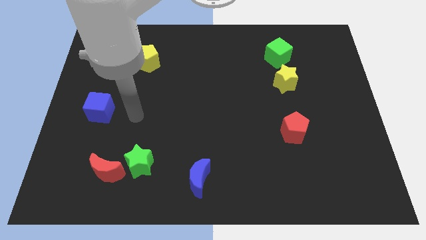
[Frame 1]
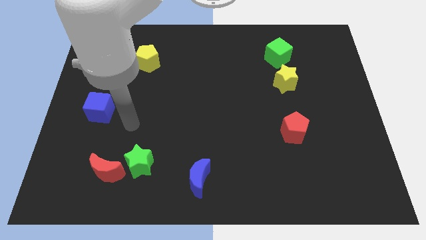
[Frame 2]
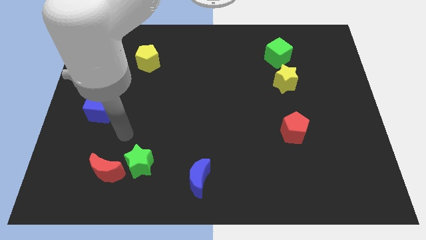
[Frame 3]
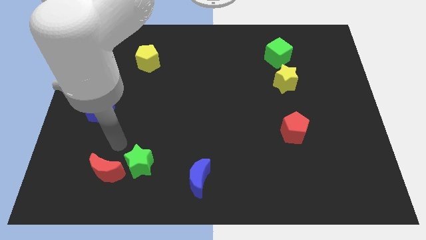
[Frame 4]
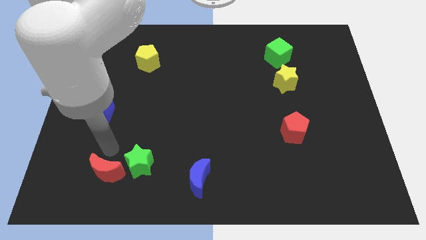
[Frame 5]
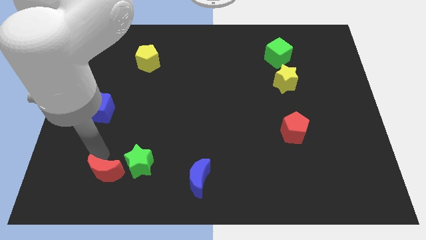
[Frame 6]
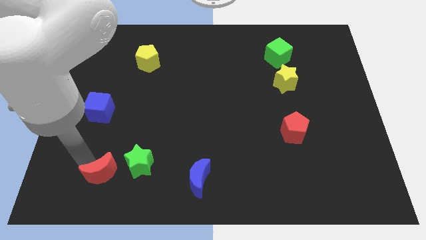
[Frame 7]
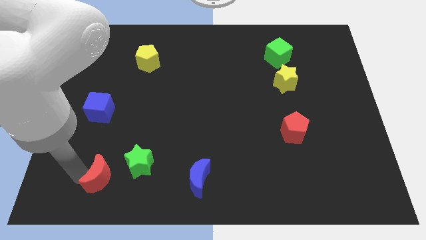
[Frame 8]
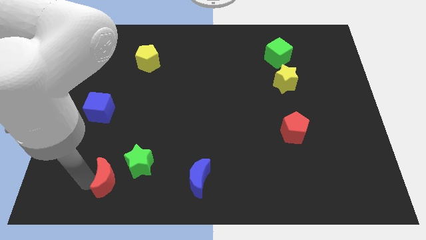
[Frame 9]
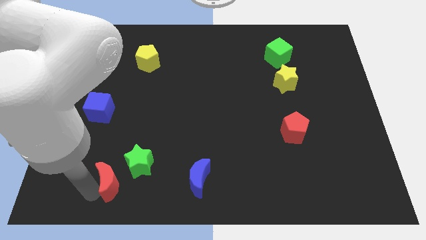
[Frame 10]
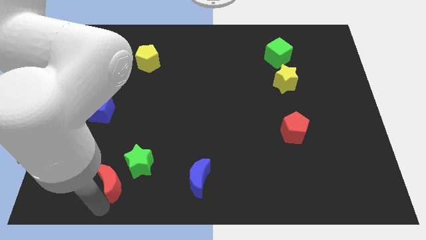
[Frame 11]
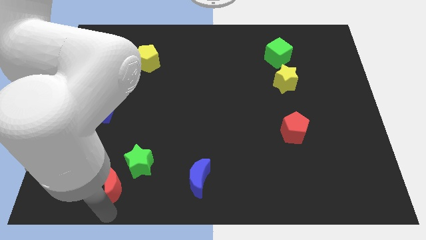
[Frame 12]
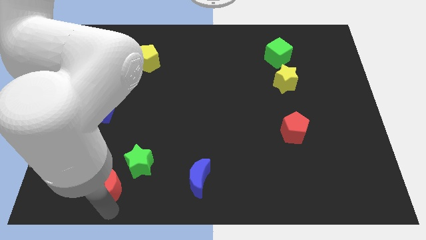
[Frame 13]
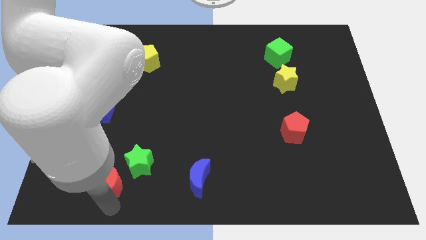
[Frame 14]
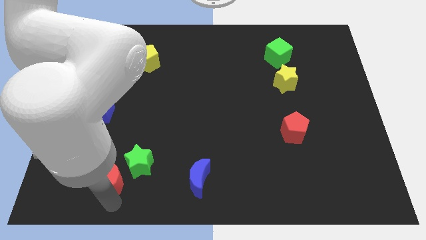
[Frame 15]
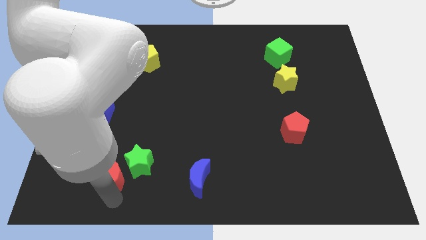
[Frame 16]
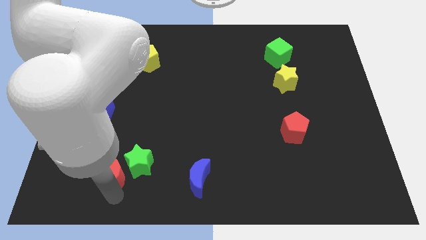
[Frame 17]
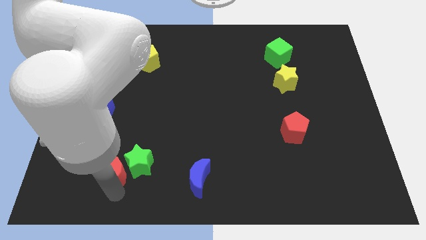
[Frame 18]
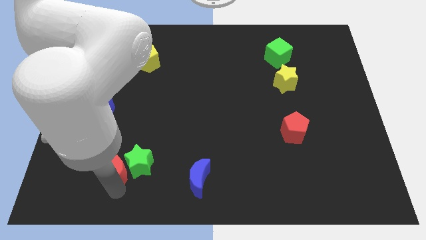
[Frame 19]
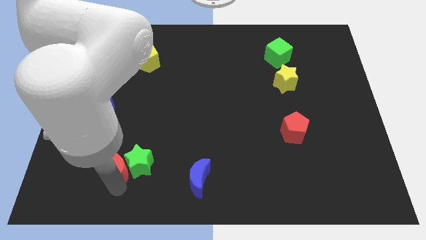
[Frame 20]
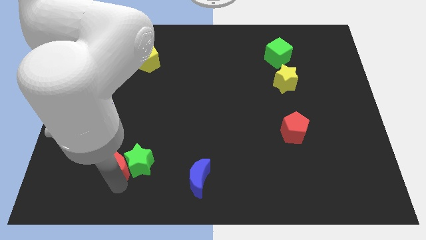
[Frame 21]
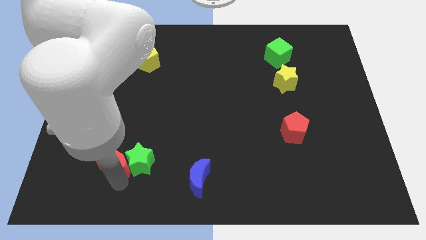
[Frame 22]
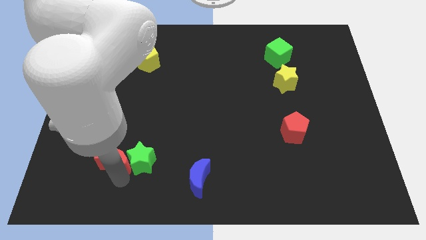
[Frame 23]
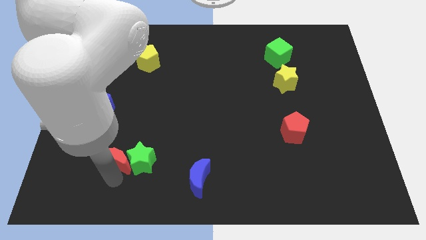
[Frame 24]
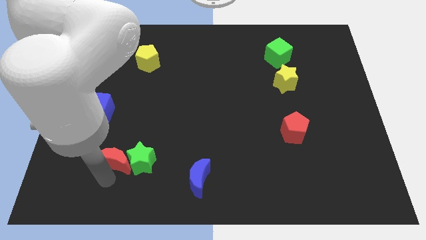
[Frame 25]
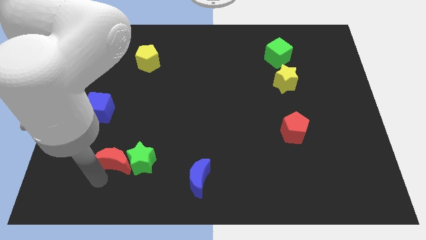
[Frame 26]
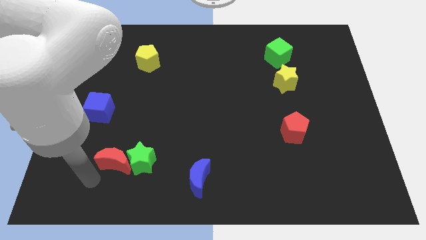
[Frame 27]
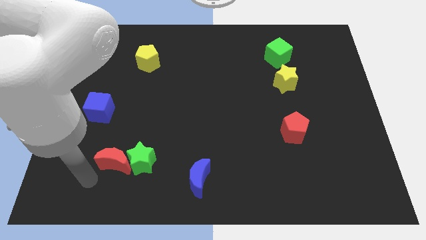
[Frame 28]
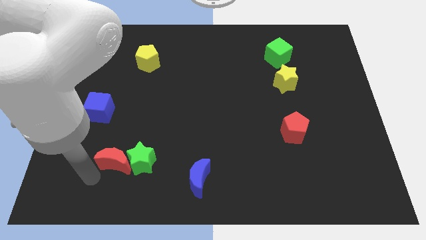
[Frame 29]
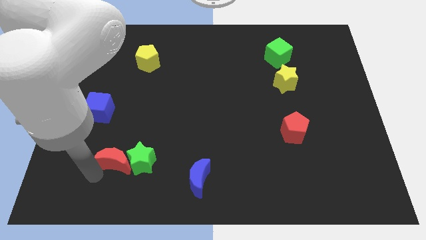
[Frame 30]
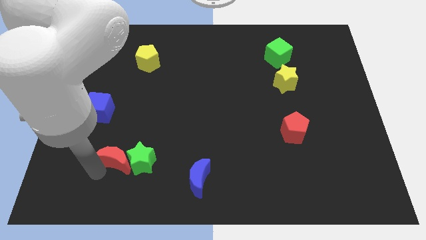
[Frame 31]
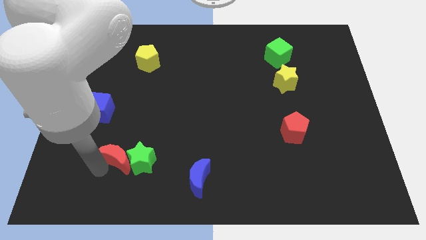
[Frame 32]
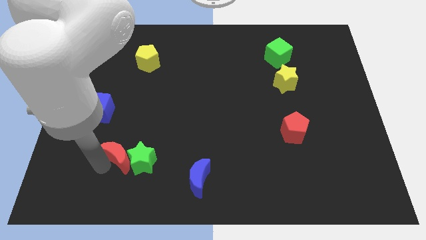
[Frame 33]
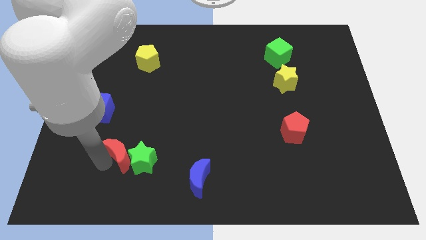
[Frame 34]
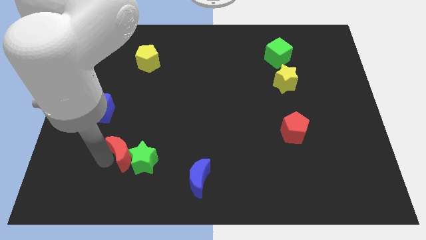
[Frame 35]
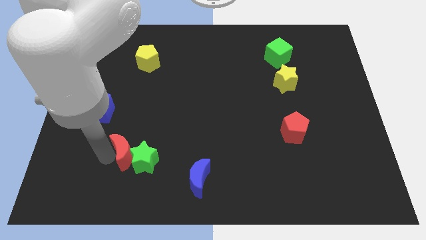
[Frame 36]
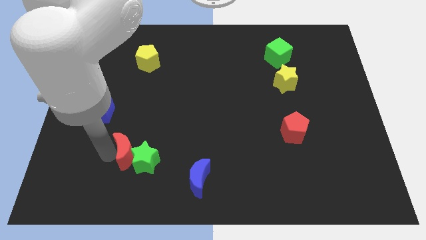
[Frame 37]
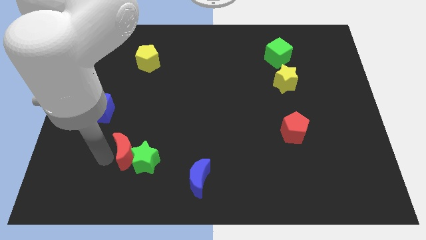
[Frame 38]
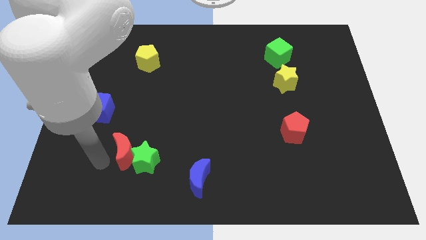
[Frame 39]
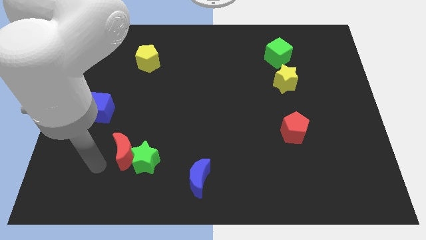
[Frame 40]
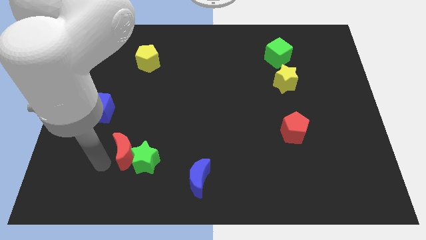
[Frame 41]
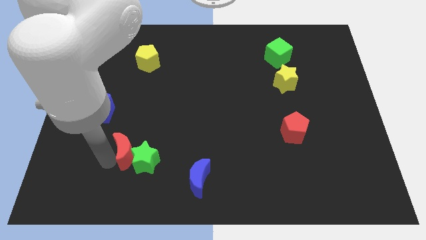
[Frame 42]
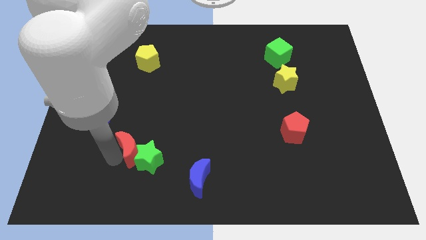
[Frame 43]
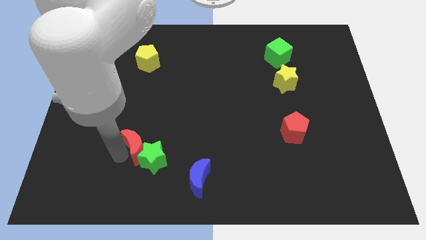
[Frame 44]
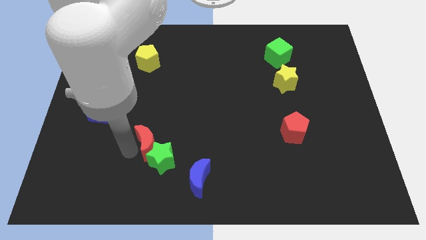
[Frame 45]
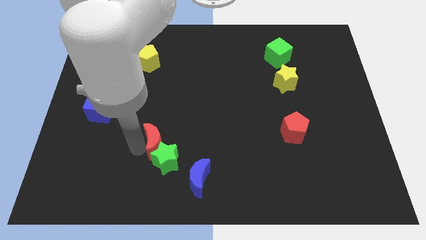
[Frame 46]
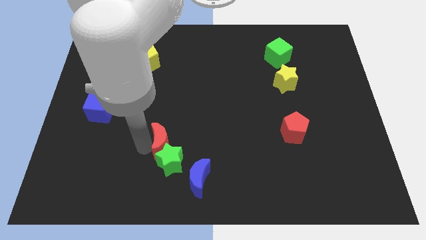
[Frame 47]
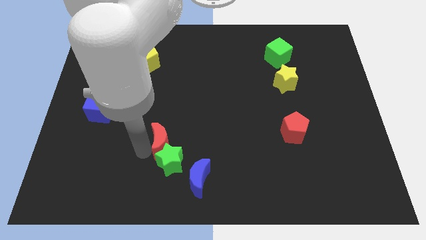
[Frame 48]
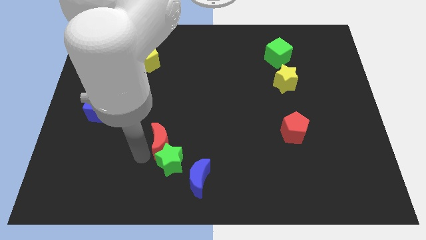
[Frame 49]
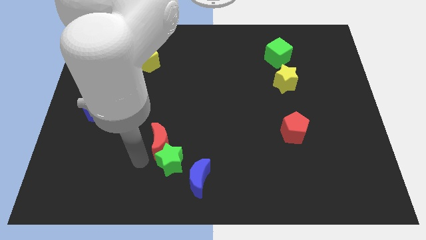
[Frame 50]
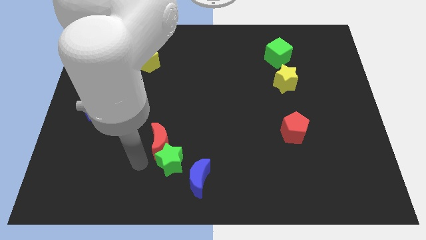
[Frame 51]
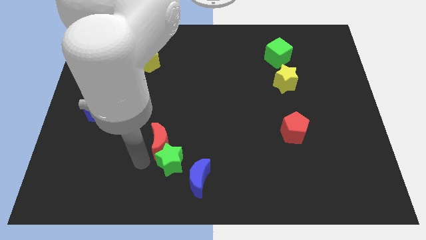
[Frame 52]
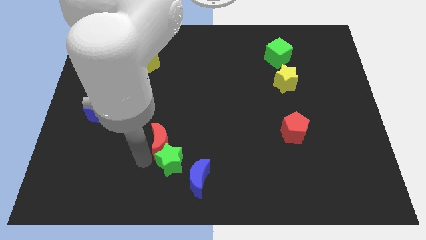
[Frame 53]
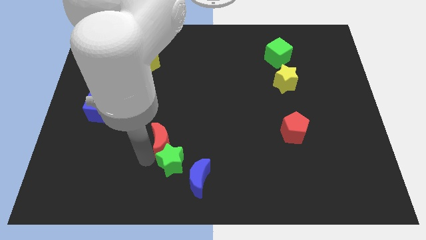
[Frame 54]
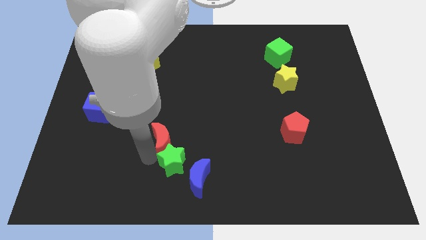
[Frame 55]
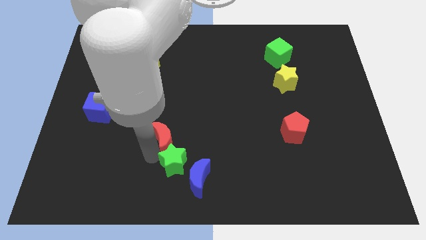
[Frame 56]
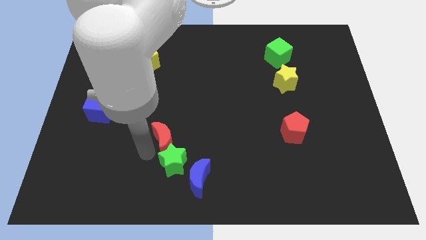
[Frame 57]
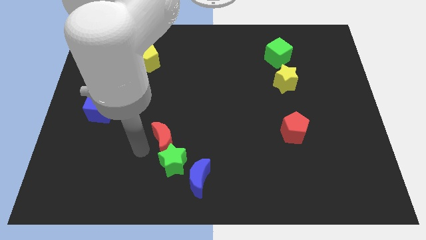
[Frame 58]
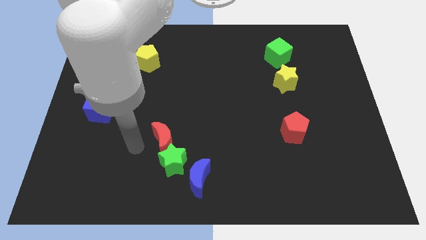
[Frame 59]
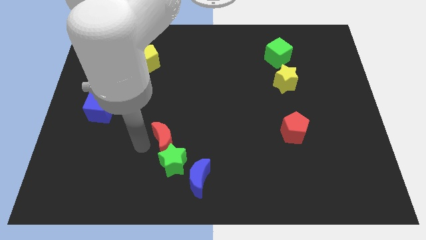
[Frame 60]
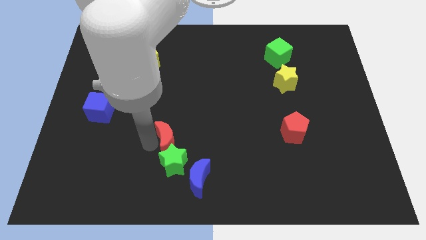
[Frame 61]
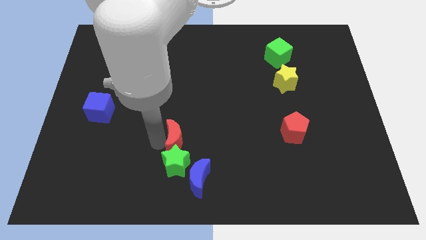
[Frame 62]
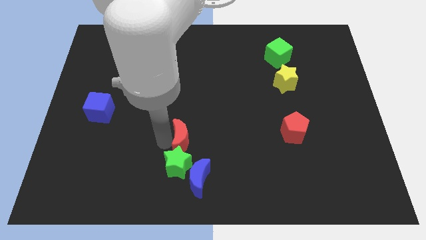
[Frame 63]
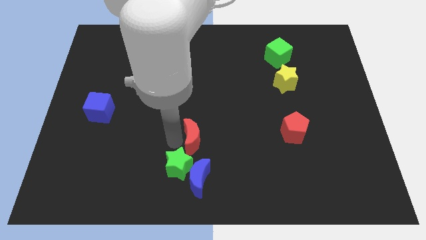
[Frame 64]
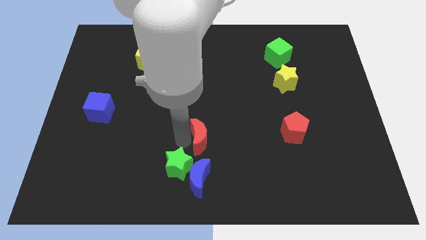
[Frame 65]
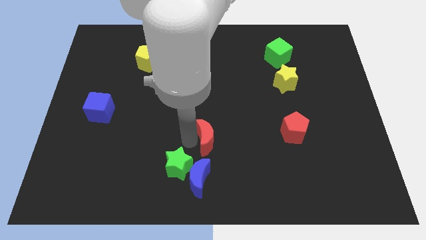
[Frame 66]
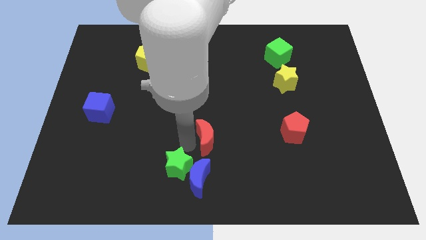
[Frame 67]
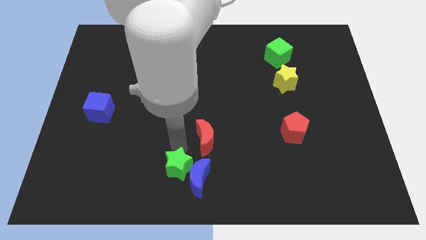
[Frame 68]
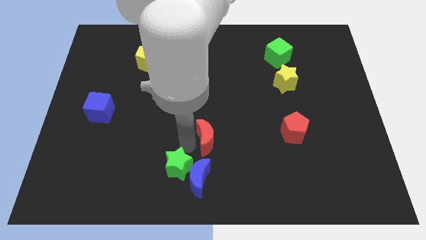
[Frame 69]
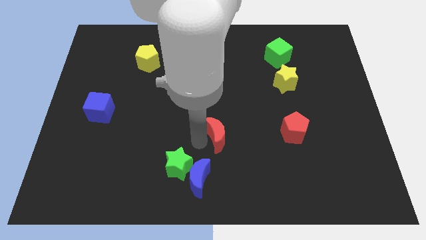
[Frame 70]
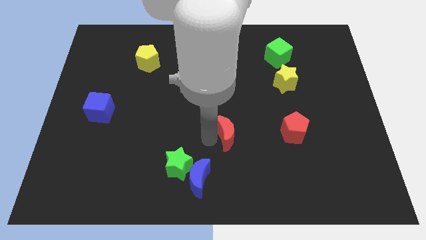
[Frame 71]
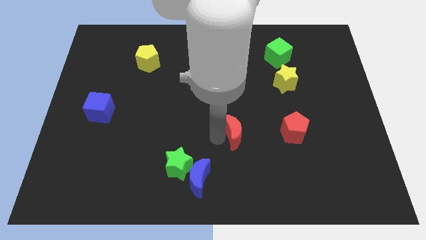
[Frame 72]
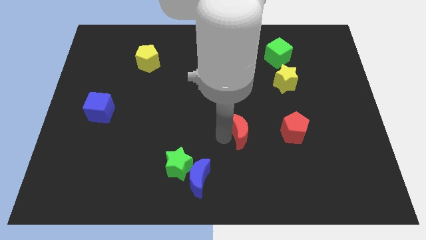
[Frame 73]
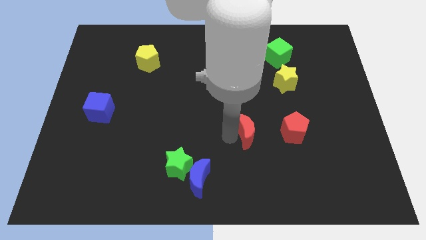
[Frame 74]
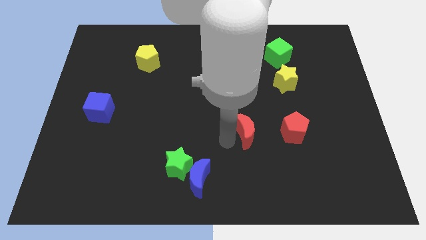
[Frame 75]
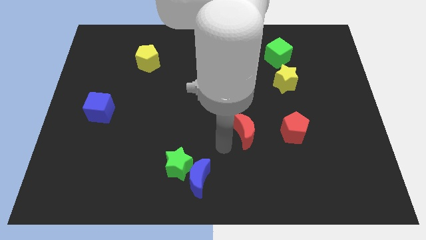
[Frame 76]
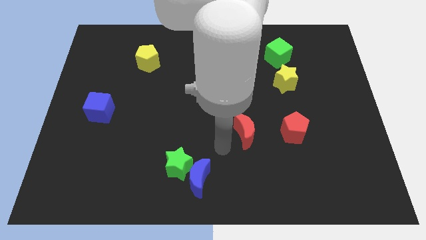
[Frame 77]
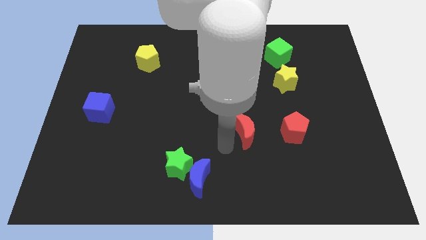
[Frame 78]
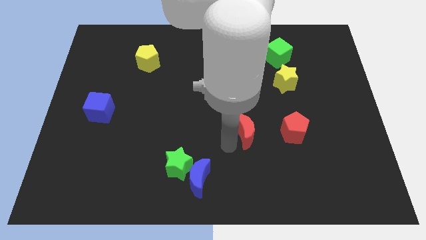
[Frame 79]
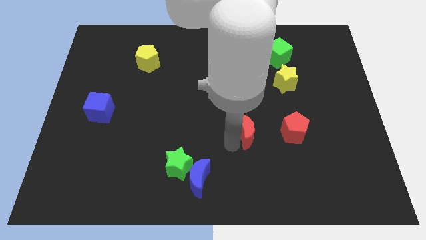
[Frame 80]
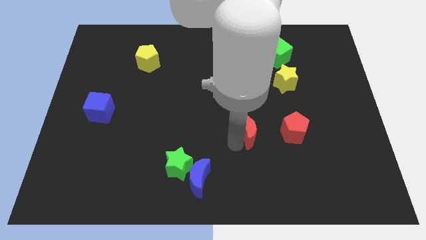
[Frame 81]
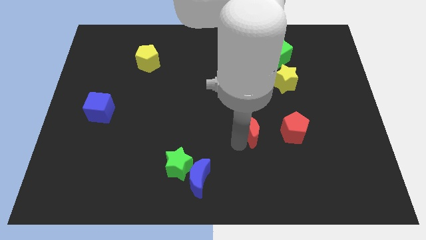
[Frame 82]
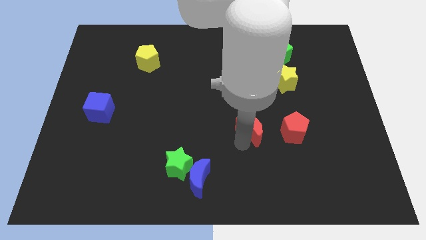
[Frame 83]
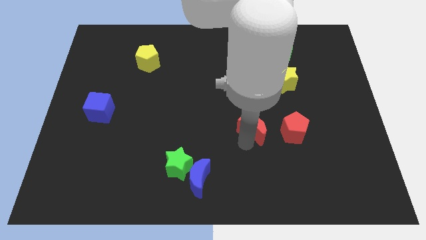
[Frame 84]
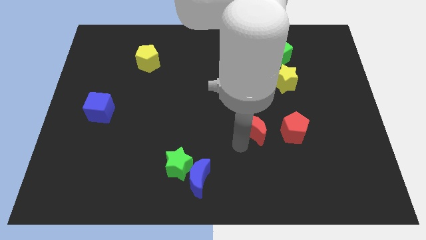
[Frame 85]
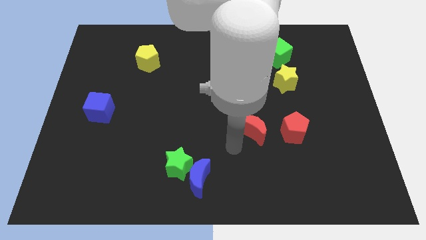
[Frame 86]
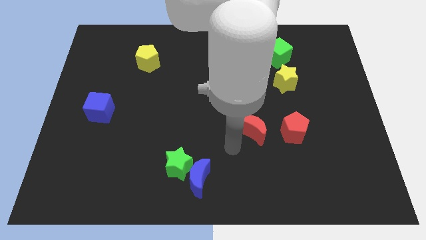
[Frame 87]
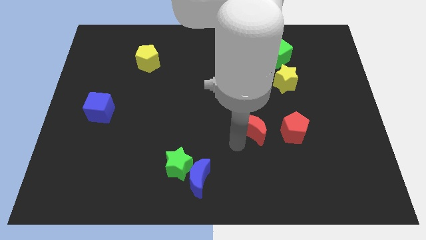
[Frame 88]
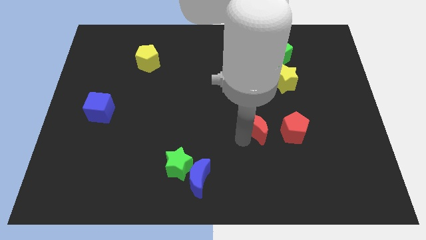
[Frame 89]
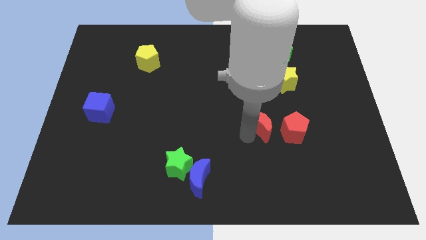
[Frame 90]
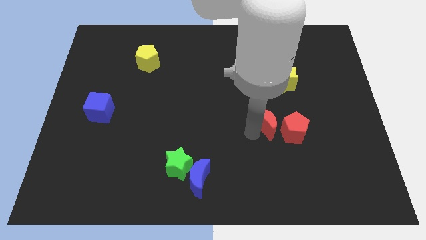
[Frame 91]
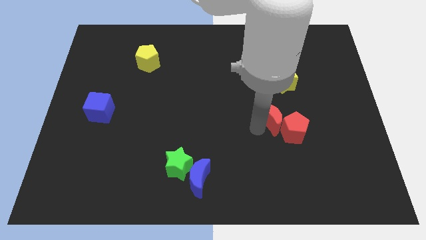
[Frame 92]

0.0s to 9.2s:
move the red moon to the bottom of the yellow star
